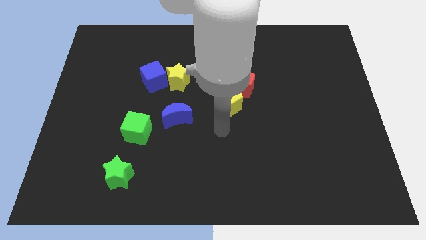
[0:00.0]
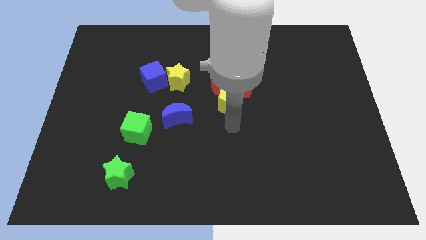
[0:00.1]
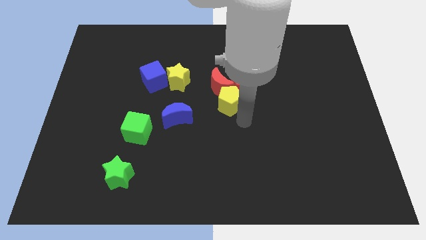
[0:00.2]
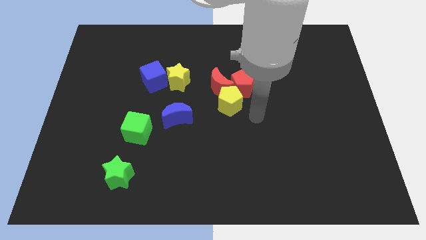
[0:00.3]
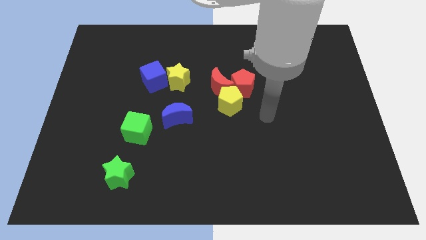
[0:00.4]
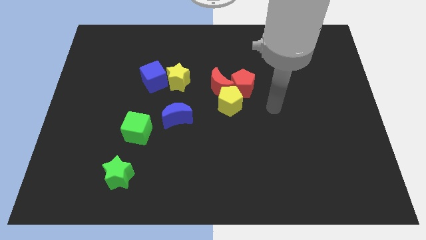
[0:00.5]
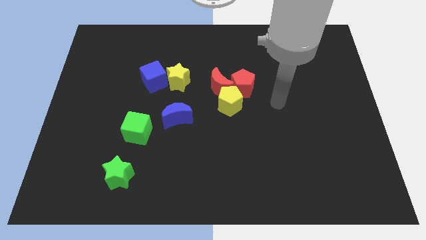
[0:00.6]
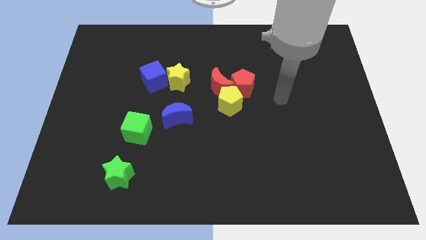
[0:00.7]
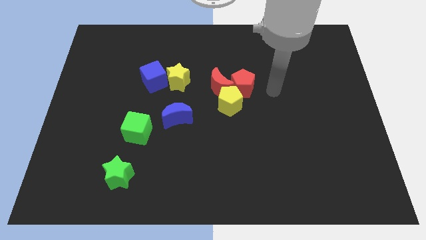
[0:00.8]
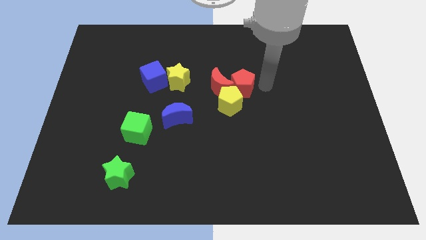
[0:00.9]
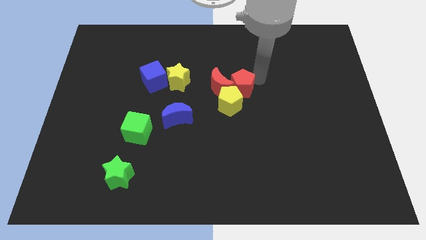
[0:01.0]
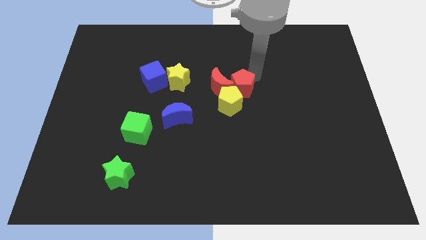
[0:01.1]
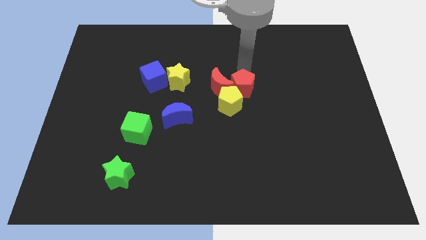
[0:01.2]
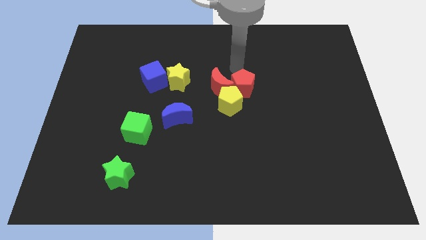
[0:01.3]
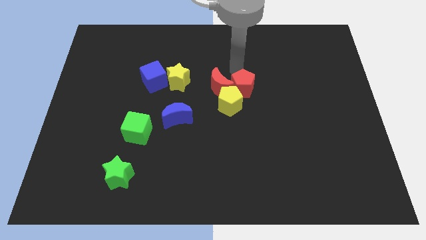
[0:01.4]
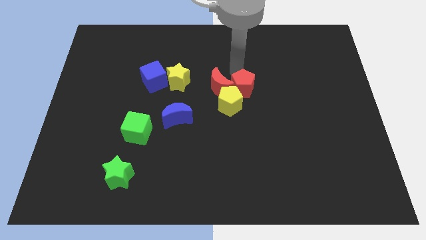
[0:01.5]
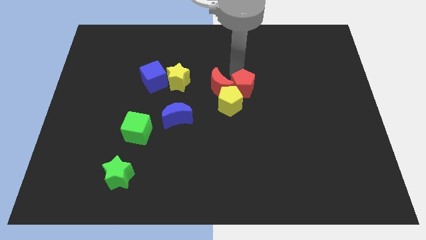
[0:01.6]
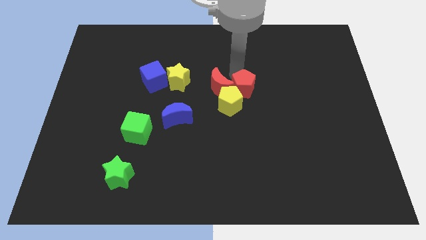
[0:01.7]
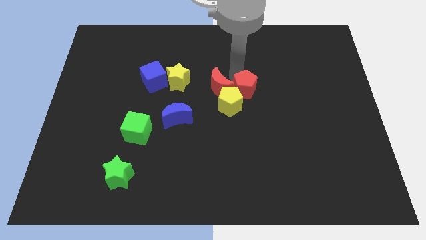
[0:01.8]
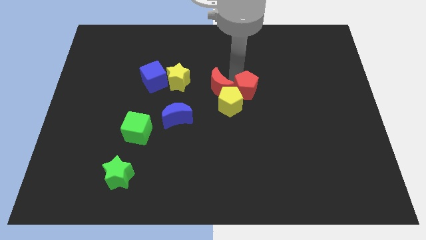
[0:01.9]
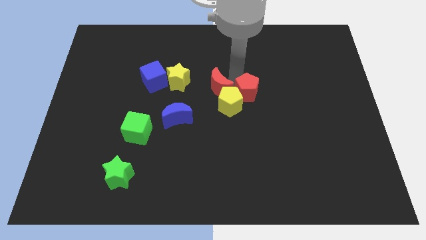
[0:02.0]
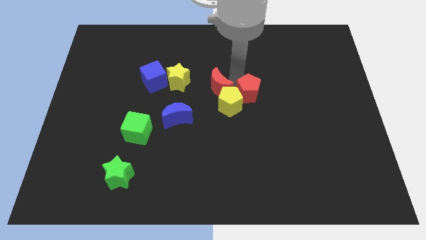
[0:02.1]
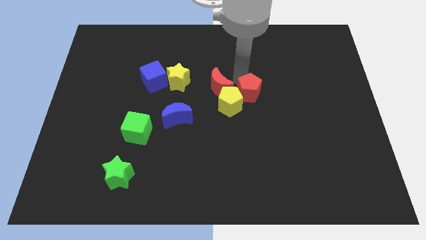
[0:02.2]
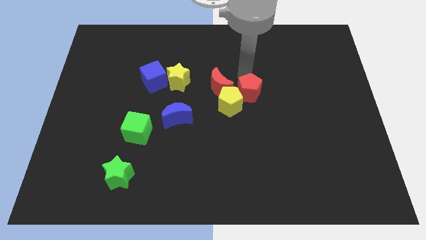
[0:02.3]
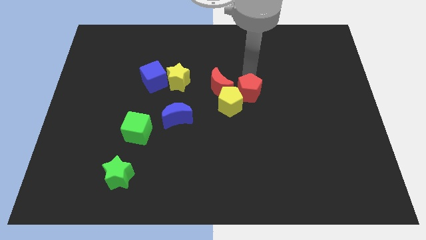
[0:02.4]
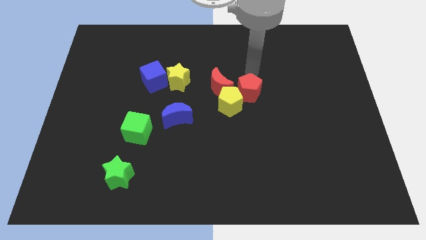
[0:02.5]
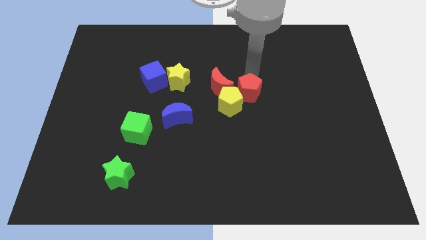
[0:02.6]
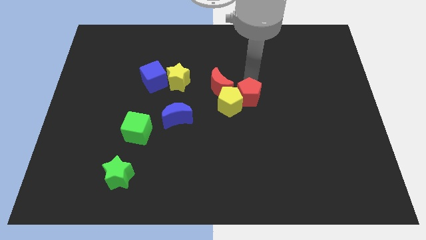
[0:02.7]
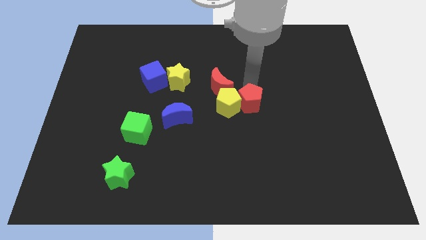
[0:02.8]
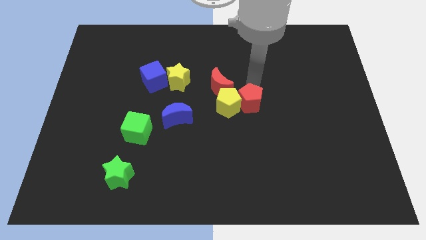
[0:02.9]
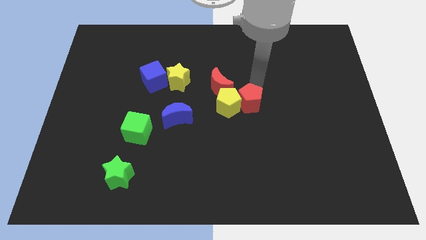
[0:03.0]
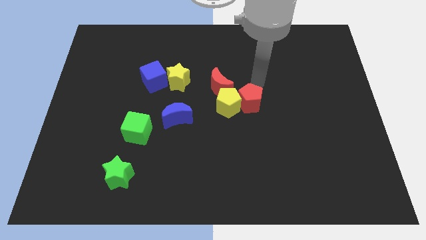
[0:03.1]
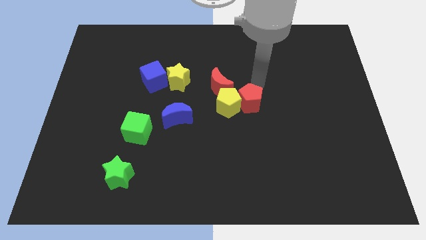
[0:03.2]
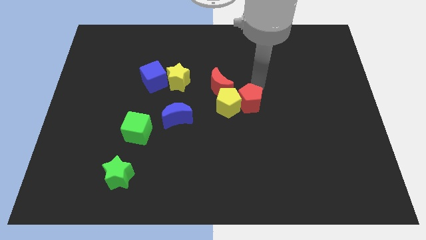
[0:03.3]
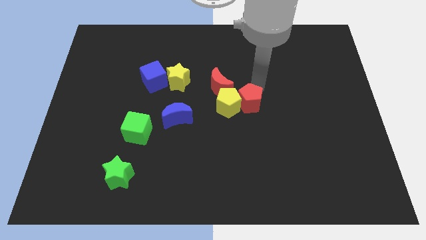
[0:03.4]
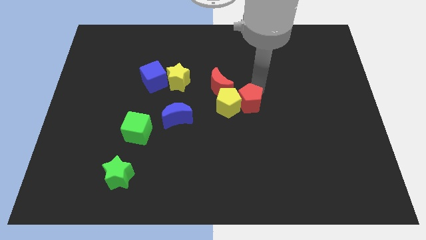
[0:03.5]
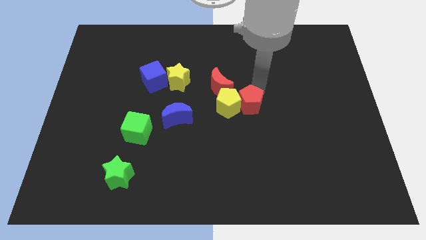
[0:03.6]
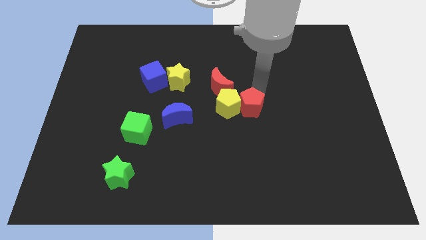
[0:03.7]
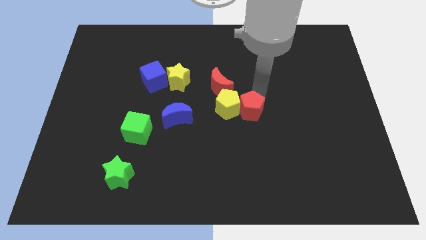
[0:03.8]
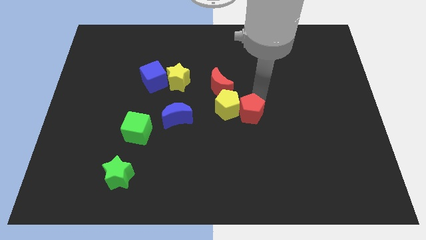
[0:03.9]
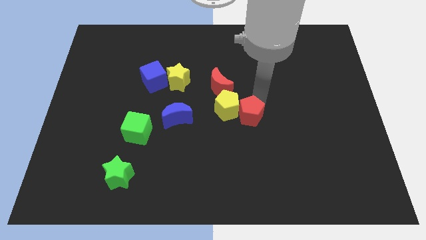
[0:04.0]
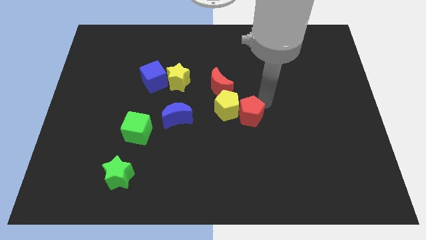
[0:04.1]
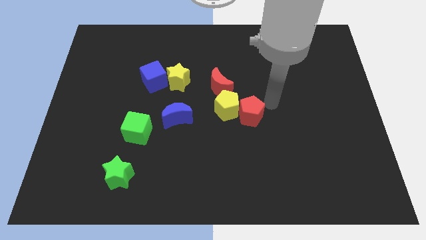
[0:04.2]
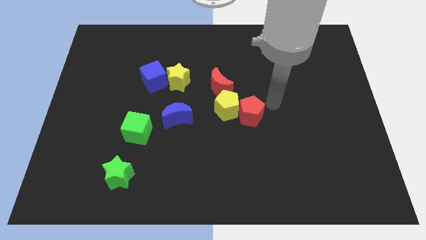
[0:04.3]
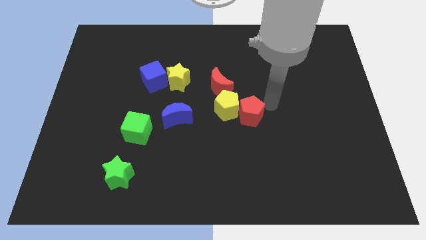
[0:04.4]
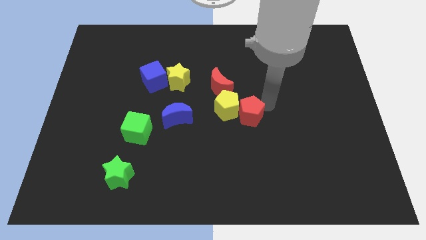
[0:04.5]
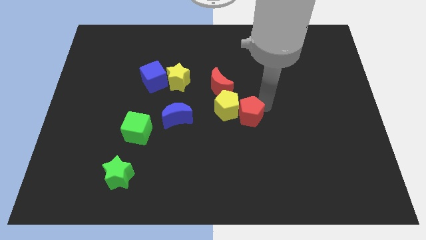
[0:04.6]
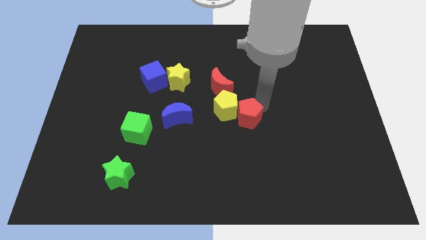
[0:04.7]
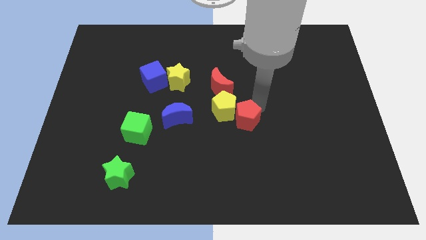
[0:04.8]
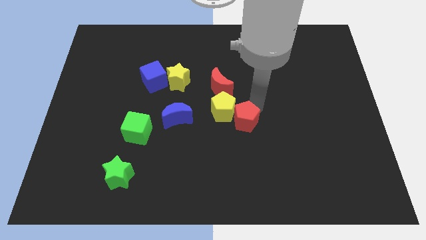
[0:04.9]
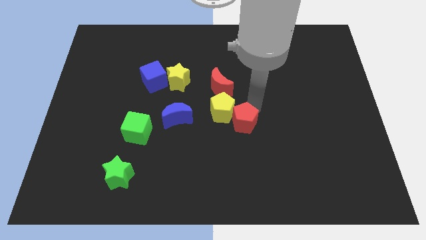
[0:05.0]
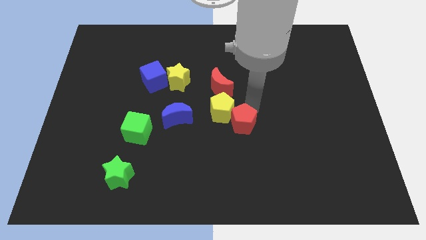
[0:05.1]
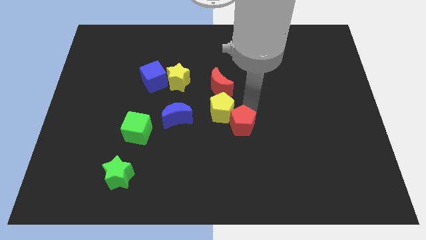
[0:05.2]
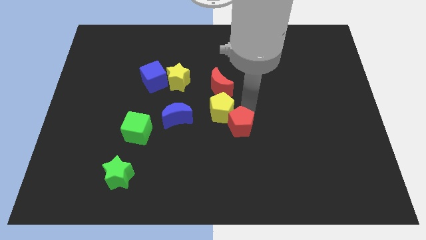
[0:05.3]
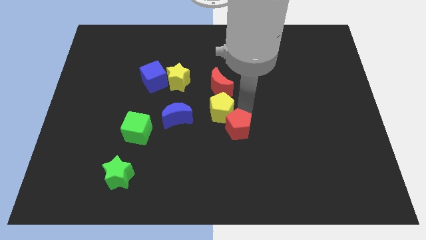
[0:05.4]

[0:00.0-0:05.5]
slightly move the red pentagon down and then left

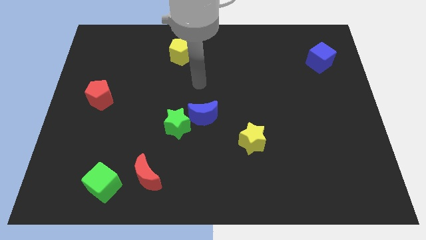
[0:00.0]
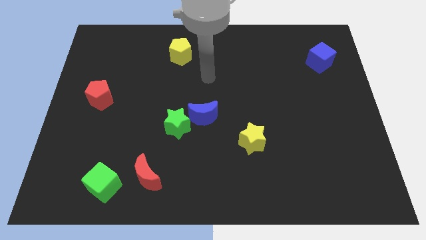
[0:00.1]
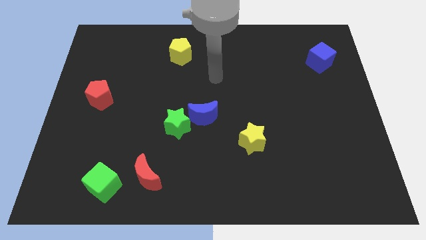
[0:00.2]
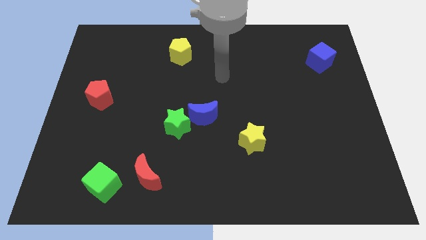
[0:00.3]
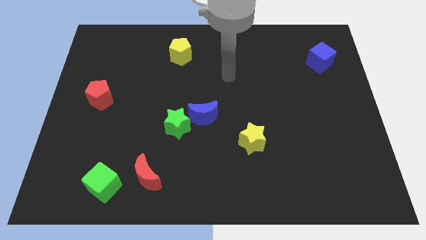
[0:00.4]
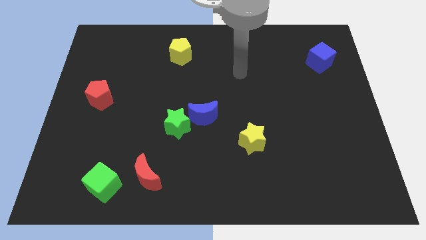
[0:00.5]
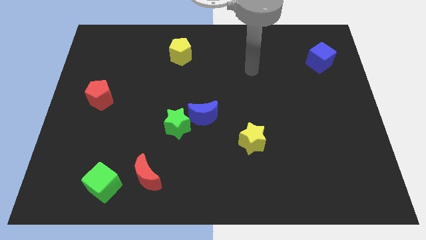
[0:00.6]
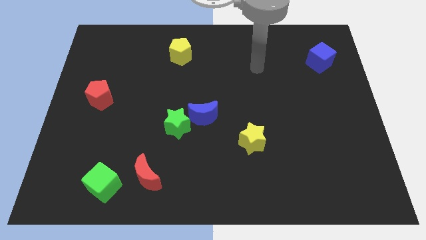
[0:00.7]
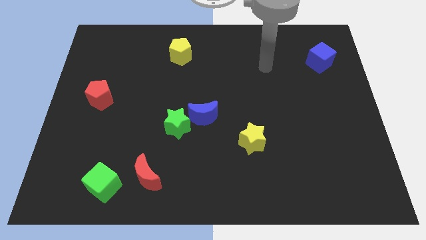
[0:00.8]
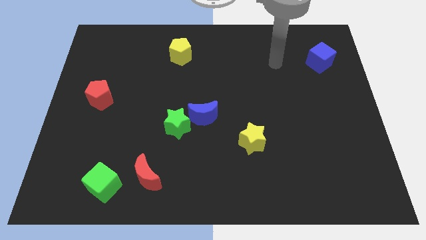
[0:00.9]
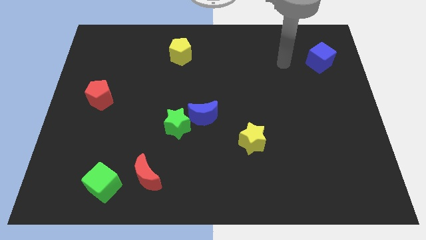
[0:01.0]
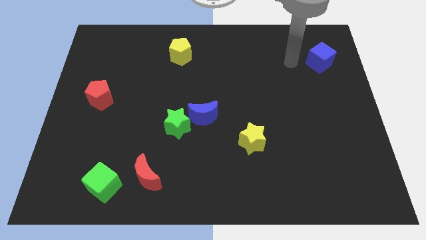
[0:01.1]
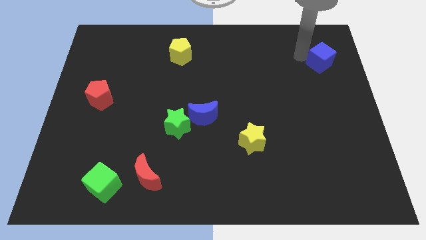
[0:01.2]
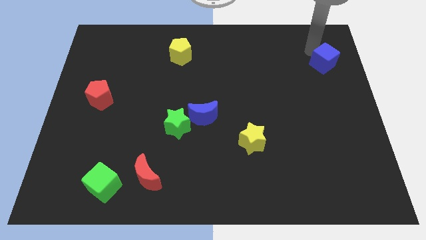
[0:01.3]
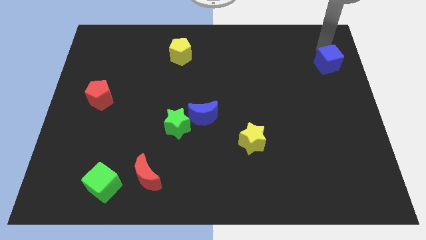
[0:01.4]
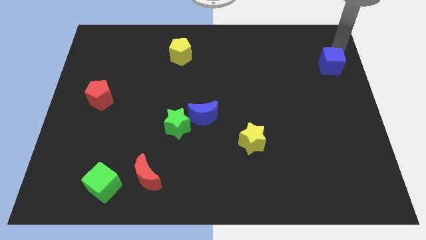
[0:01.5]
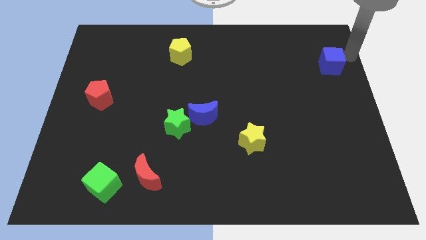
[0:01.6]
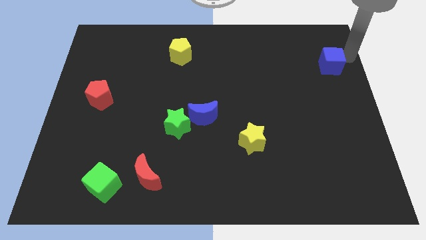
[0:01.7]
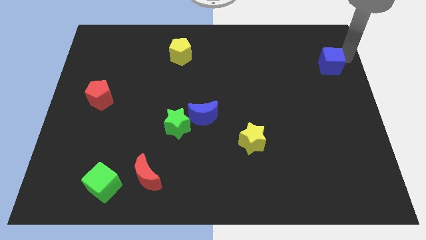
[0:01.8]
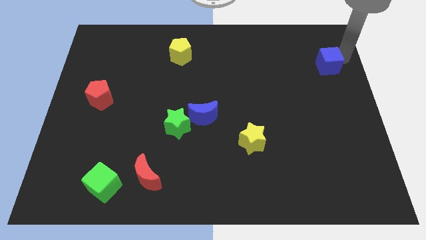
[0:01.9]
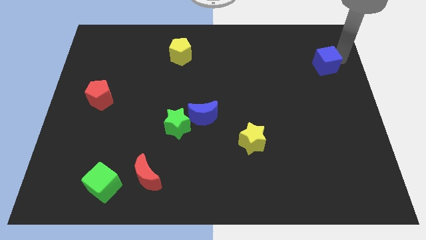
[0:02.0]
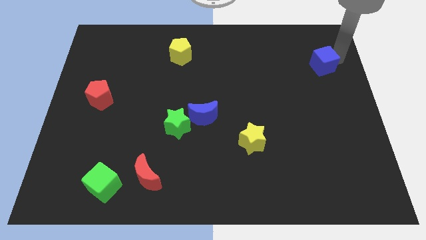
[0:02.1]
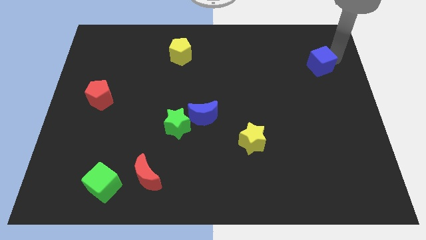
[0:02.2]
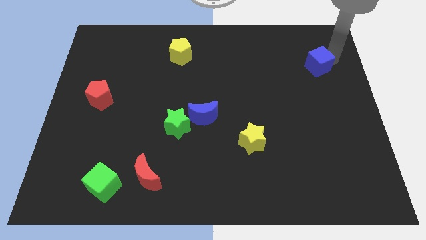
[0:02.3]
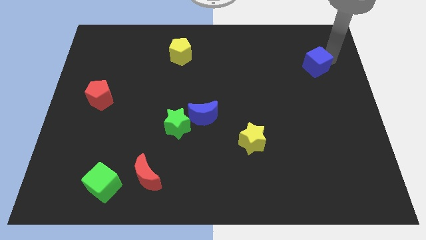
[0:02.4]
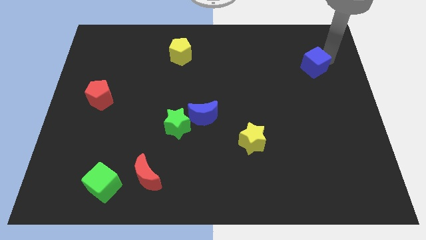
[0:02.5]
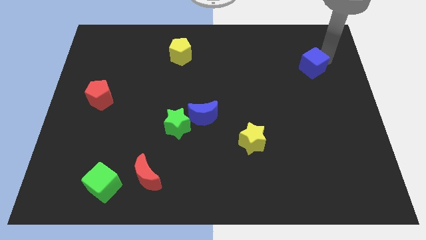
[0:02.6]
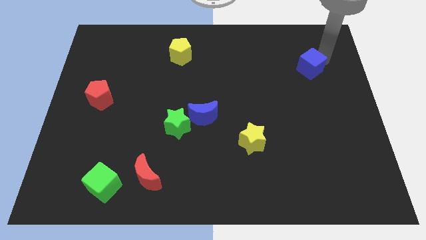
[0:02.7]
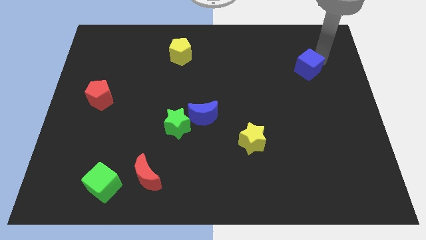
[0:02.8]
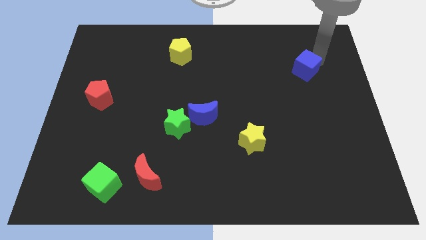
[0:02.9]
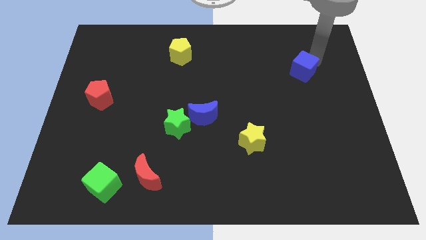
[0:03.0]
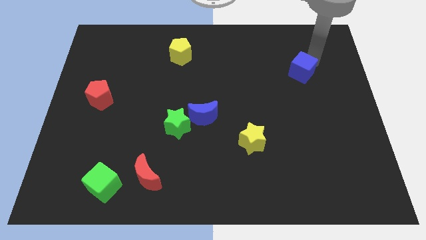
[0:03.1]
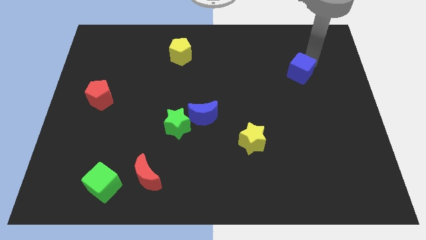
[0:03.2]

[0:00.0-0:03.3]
slide the blue cube slightly downwards and to the left
